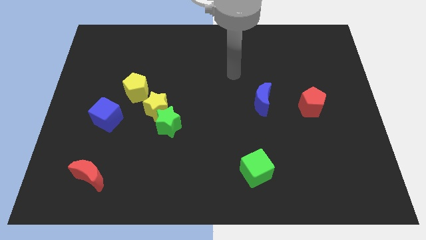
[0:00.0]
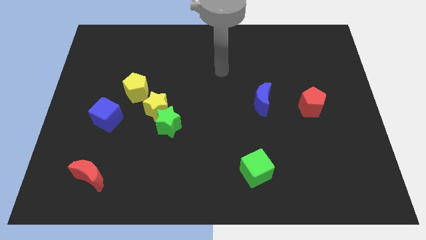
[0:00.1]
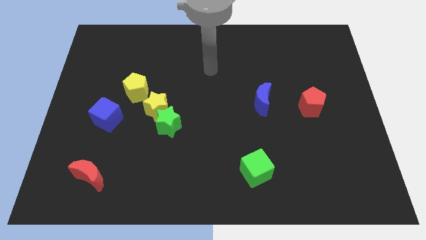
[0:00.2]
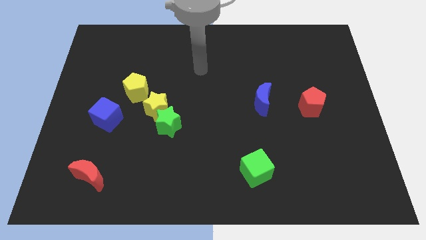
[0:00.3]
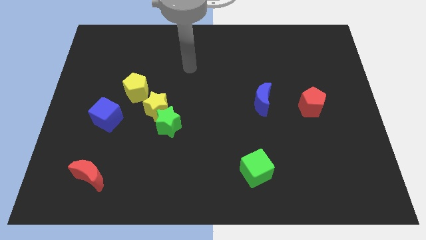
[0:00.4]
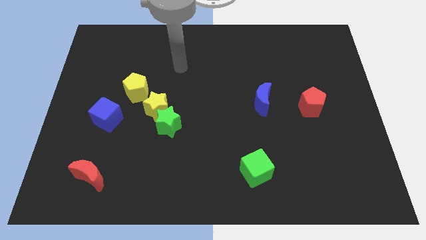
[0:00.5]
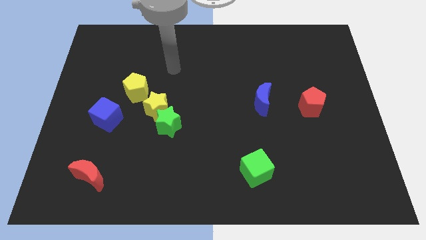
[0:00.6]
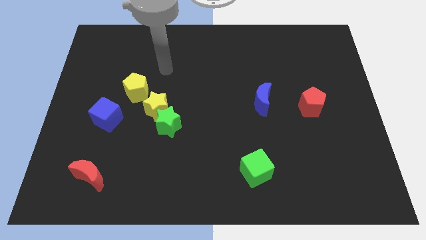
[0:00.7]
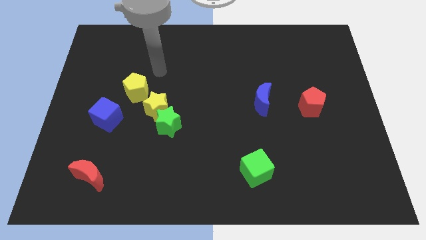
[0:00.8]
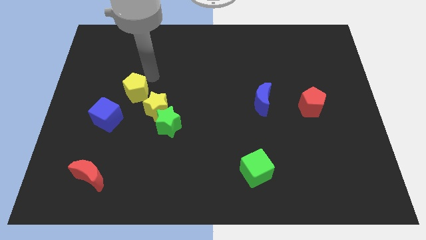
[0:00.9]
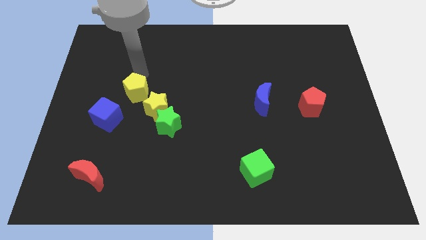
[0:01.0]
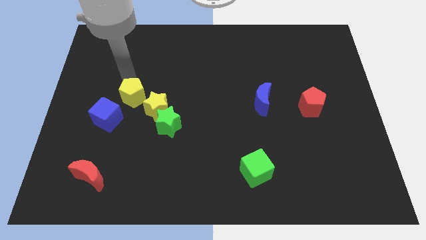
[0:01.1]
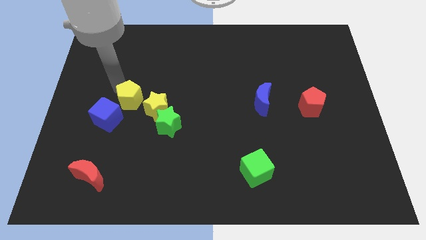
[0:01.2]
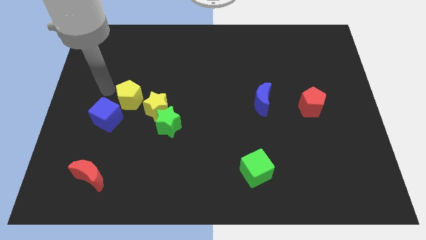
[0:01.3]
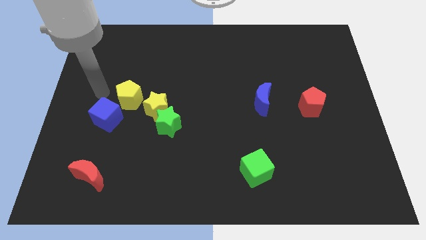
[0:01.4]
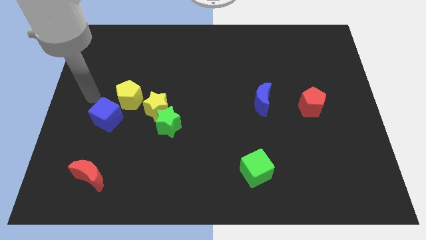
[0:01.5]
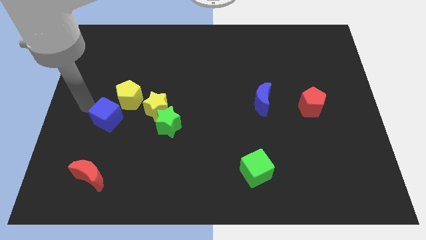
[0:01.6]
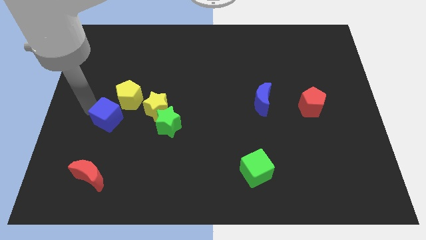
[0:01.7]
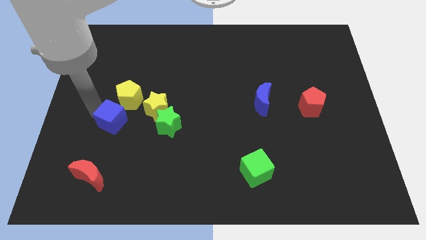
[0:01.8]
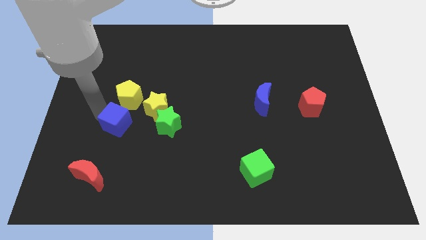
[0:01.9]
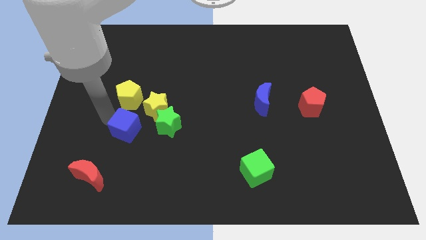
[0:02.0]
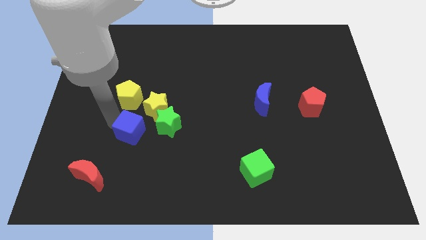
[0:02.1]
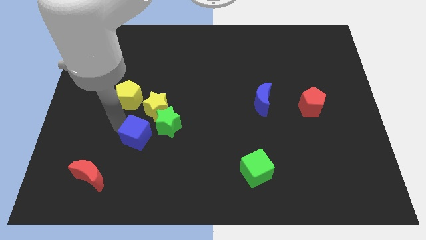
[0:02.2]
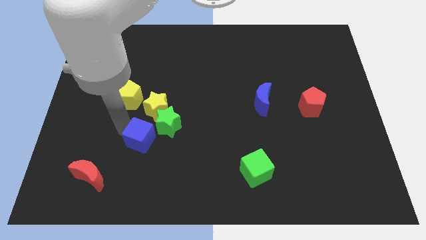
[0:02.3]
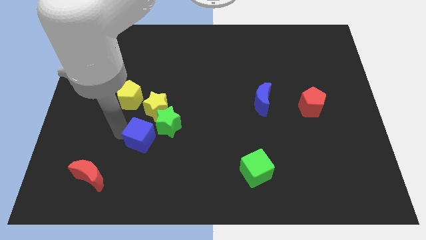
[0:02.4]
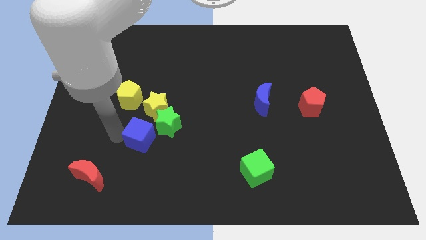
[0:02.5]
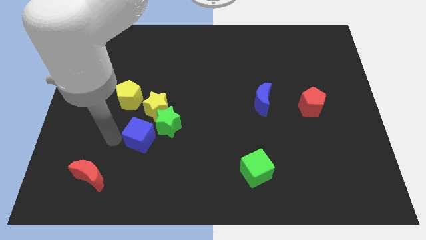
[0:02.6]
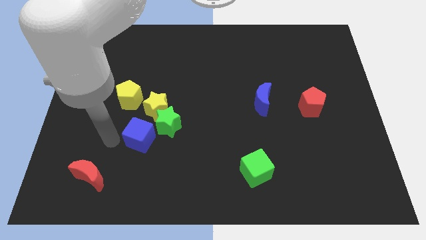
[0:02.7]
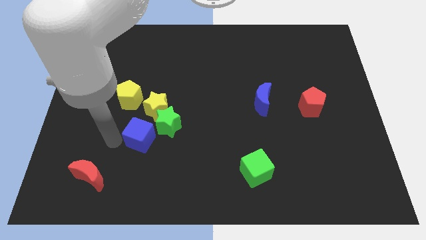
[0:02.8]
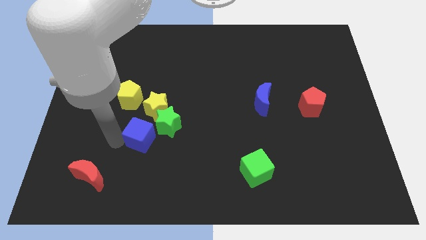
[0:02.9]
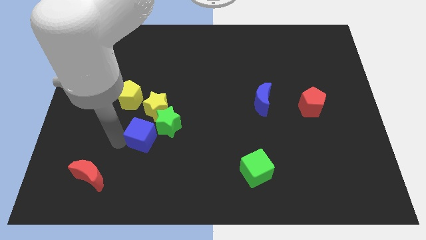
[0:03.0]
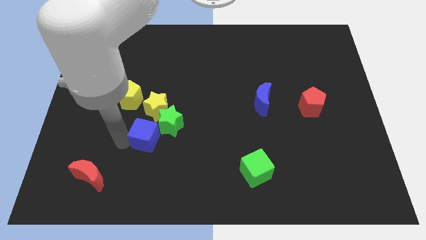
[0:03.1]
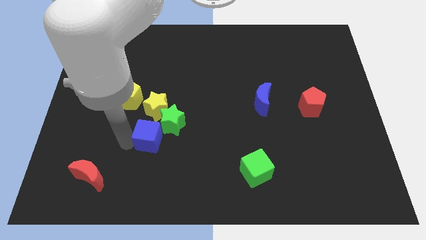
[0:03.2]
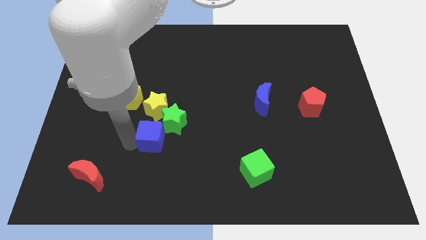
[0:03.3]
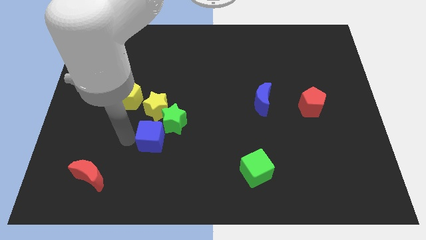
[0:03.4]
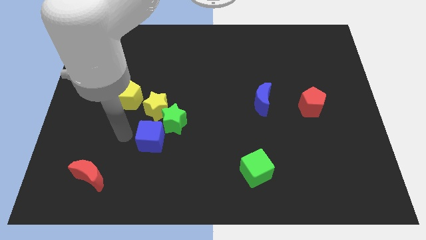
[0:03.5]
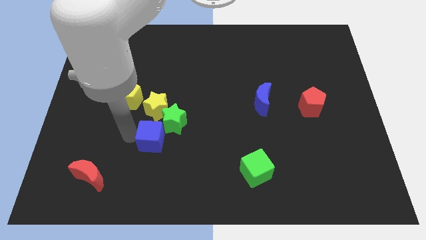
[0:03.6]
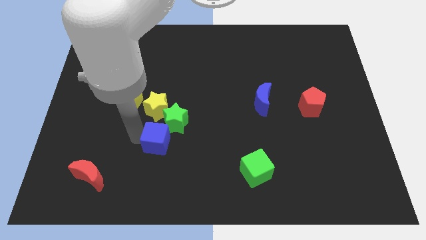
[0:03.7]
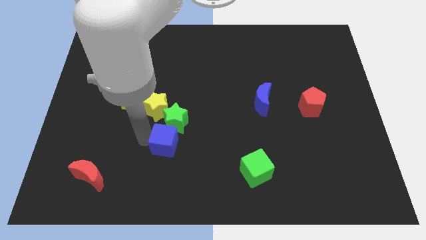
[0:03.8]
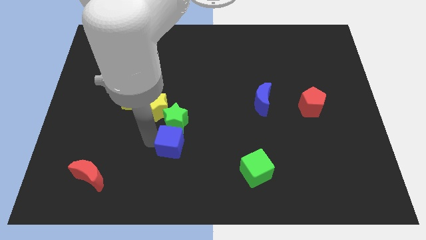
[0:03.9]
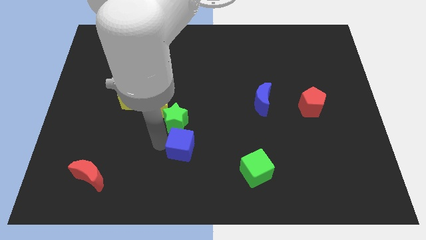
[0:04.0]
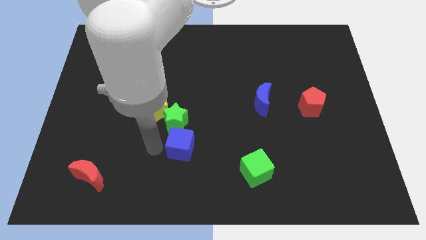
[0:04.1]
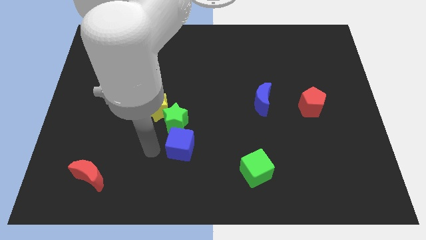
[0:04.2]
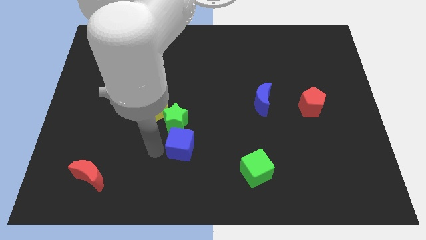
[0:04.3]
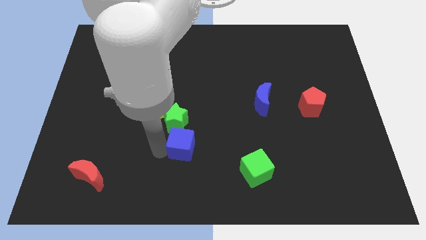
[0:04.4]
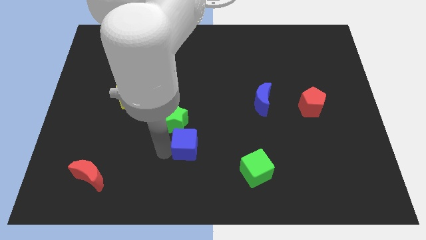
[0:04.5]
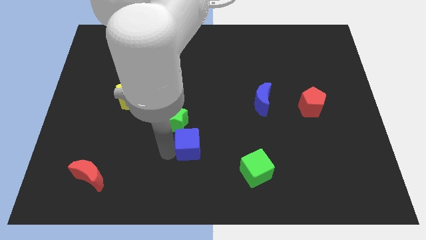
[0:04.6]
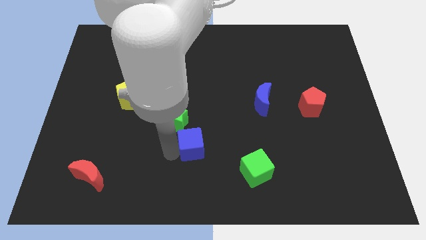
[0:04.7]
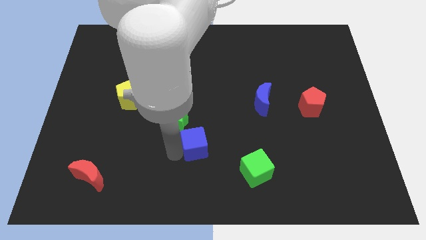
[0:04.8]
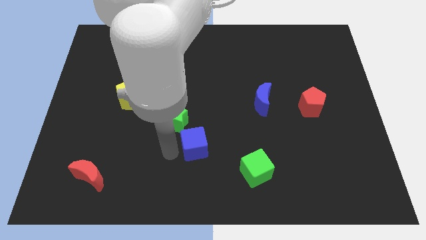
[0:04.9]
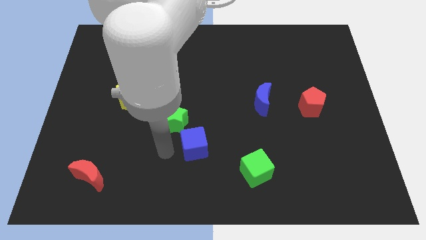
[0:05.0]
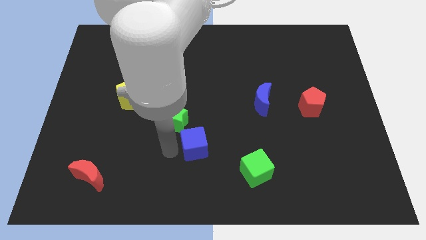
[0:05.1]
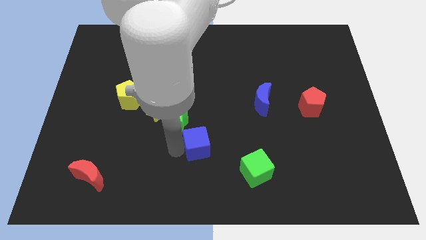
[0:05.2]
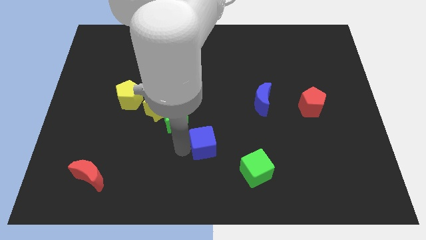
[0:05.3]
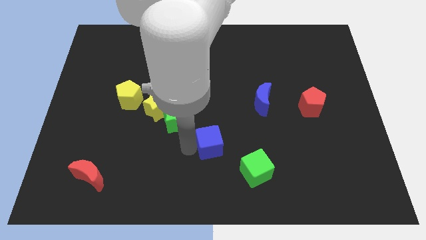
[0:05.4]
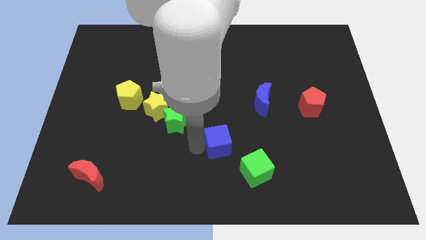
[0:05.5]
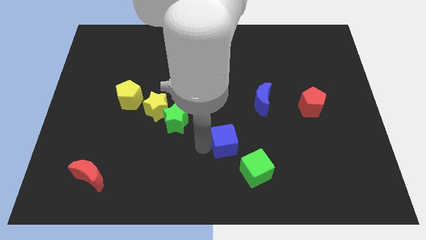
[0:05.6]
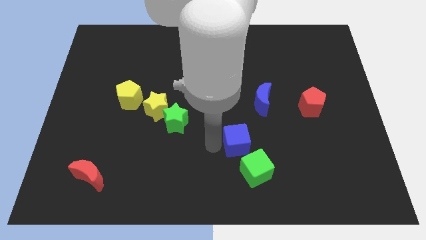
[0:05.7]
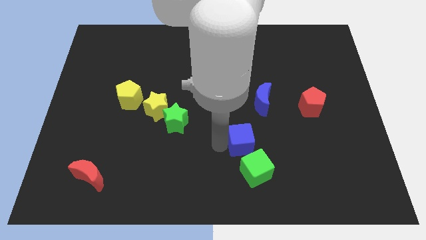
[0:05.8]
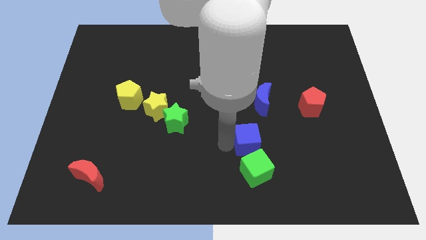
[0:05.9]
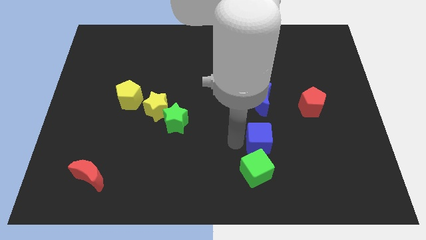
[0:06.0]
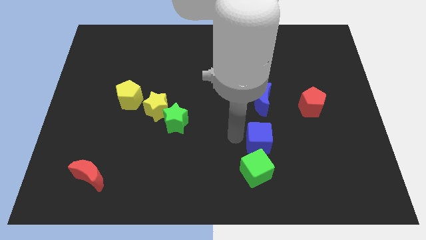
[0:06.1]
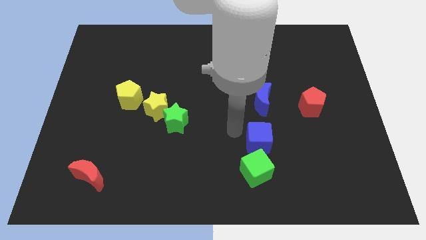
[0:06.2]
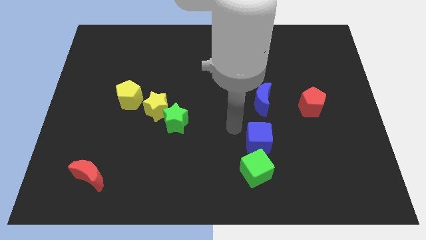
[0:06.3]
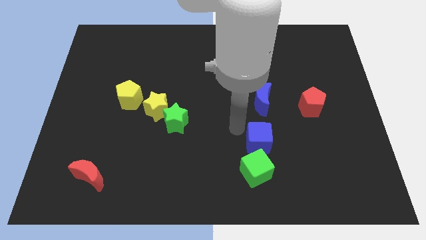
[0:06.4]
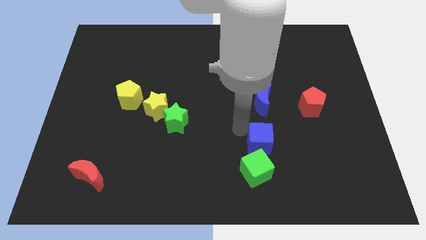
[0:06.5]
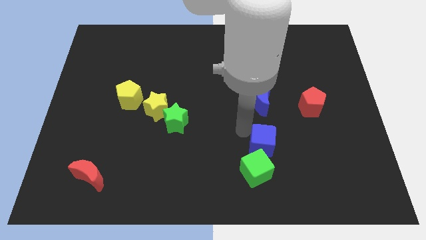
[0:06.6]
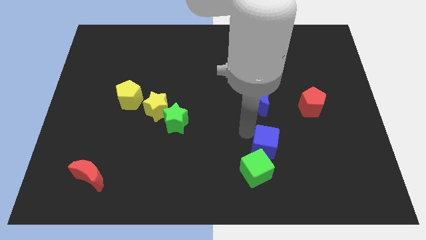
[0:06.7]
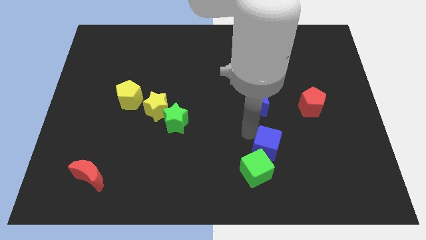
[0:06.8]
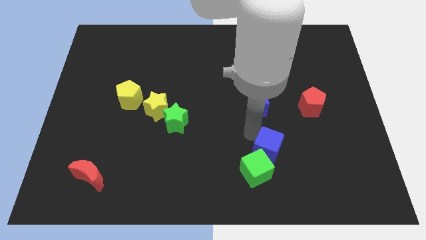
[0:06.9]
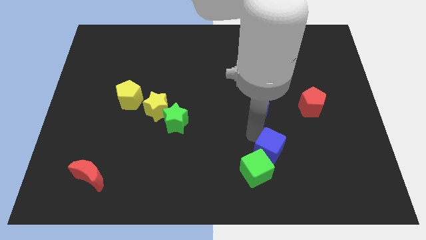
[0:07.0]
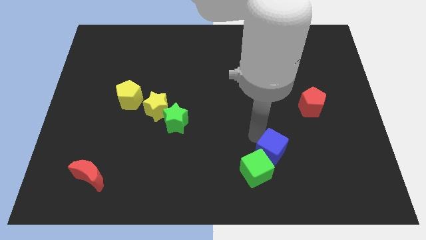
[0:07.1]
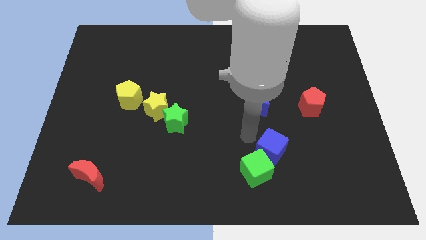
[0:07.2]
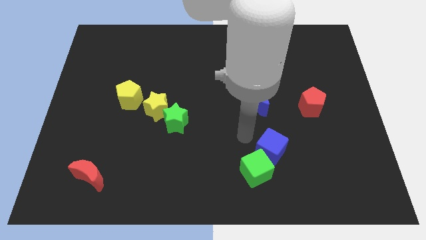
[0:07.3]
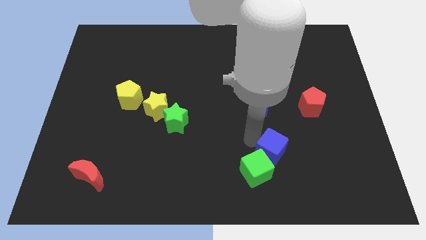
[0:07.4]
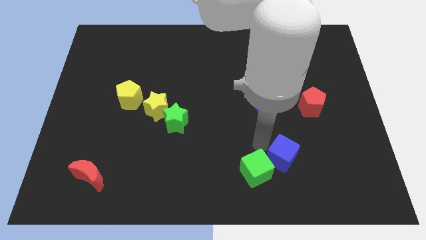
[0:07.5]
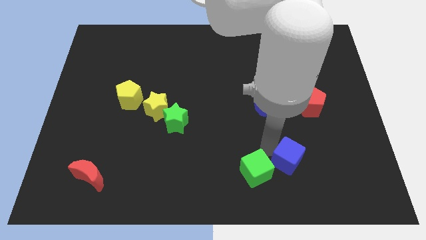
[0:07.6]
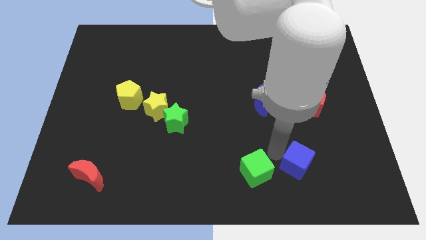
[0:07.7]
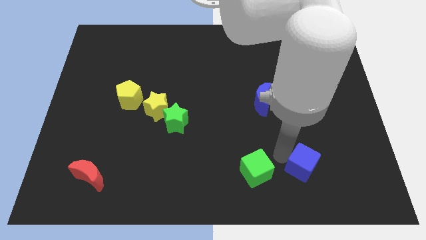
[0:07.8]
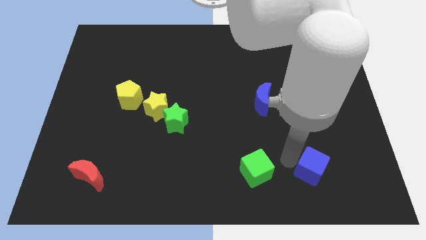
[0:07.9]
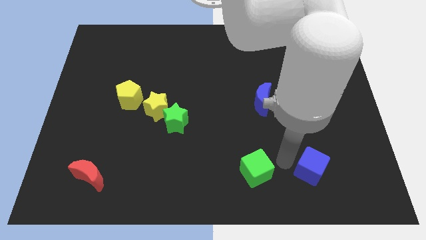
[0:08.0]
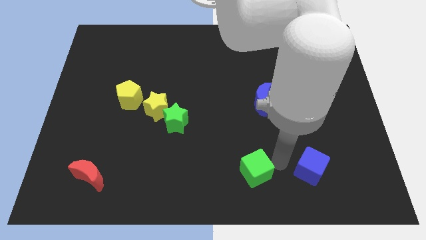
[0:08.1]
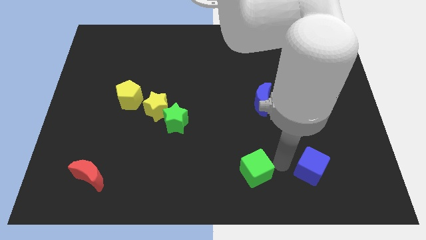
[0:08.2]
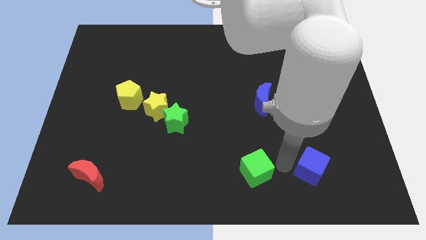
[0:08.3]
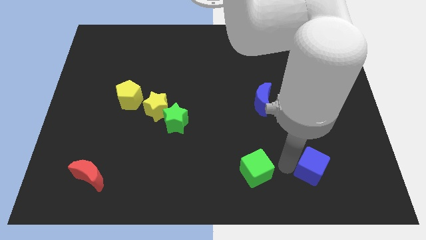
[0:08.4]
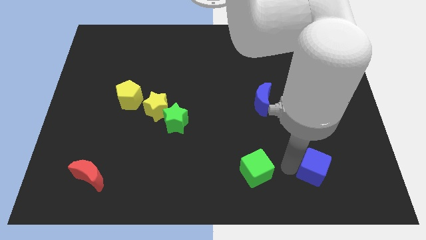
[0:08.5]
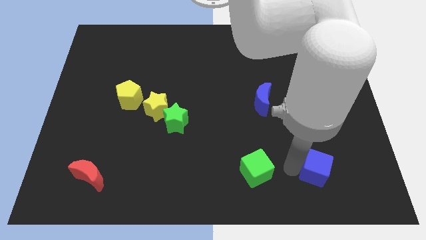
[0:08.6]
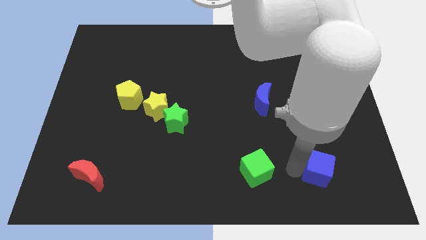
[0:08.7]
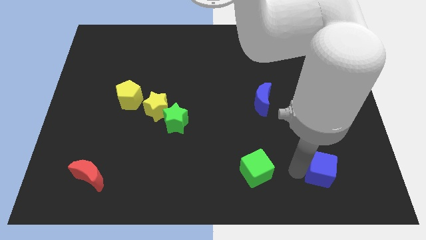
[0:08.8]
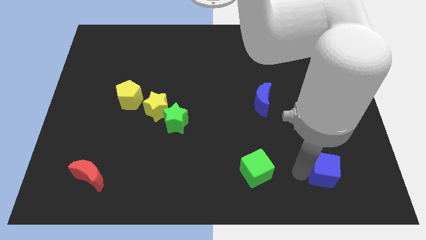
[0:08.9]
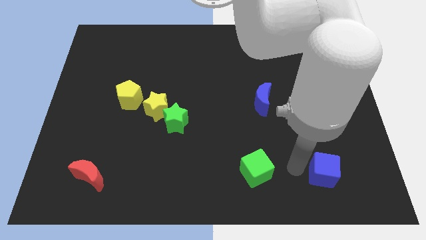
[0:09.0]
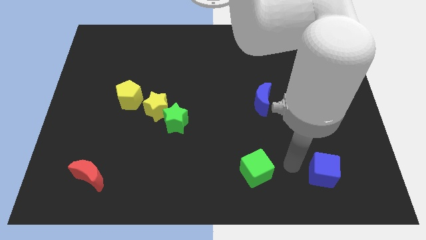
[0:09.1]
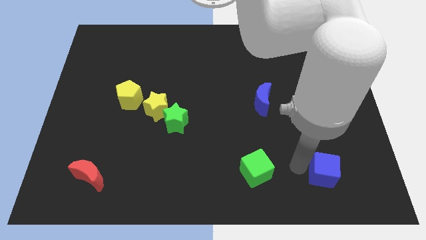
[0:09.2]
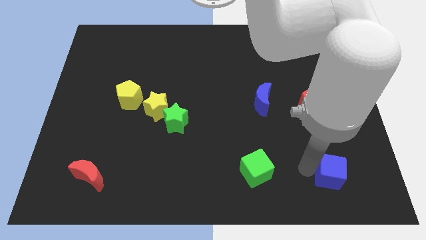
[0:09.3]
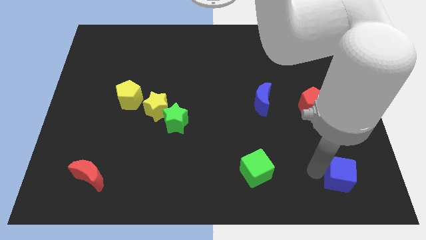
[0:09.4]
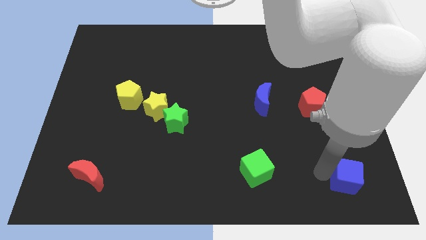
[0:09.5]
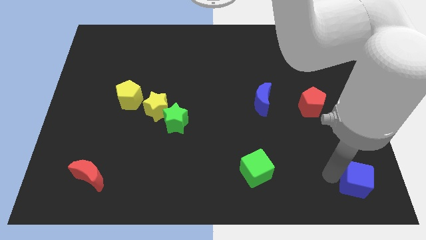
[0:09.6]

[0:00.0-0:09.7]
put the blue cube to the bottom right
